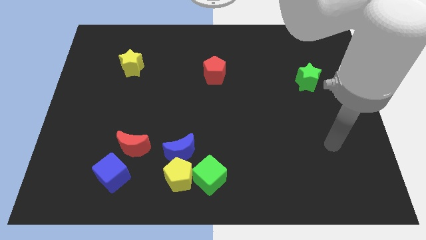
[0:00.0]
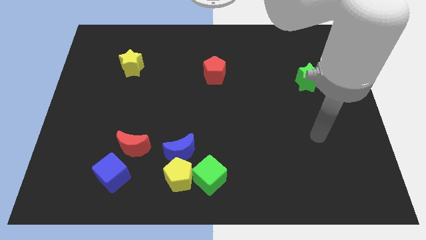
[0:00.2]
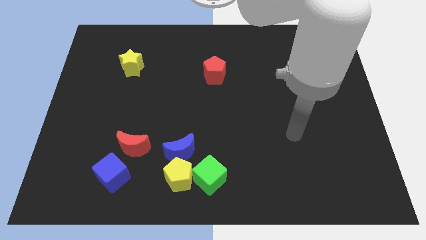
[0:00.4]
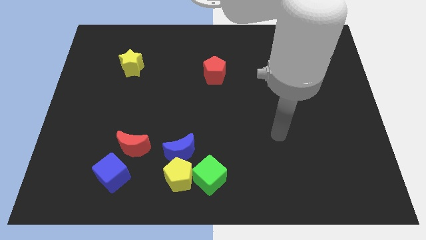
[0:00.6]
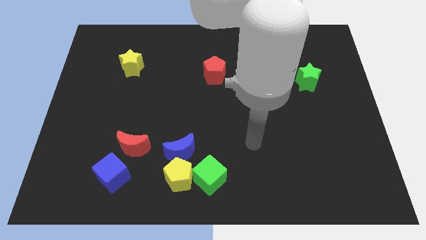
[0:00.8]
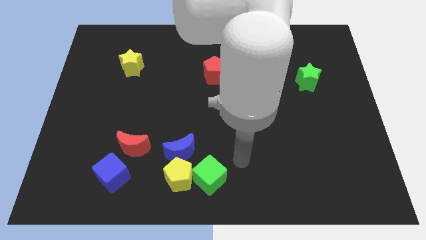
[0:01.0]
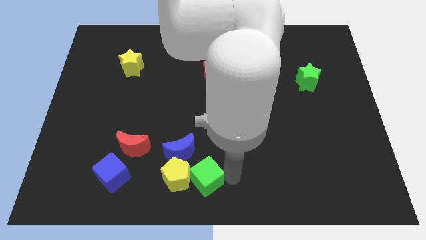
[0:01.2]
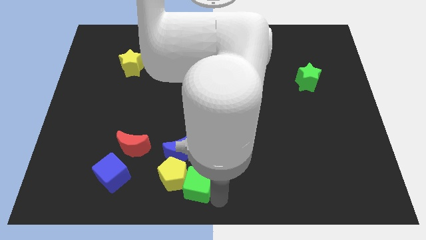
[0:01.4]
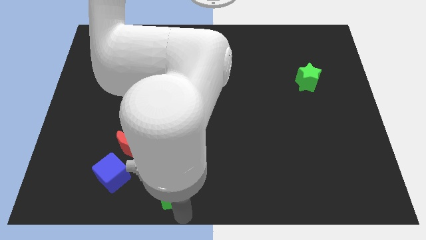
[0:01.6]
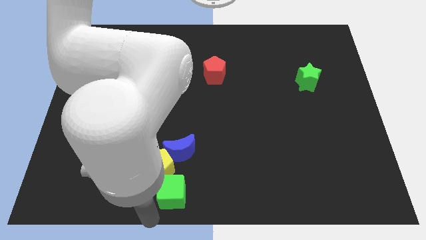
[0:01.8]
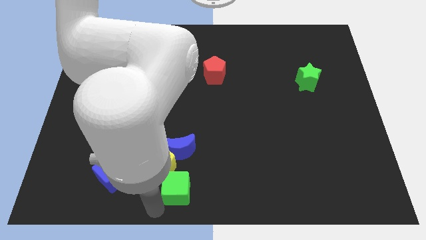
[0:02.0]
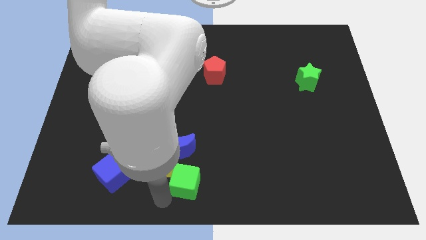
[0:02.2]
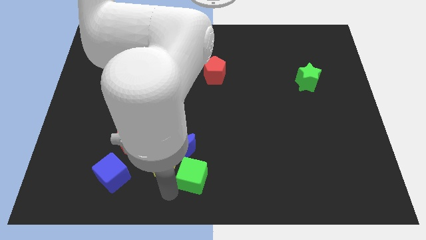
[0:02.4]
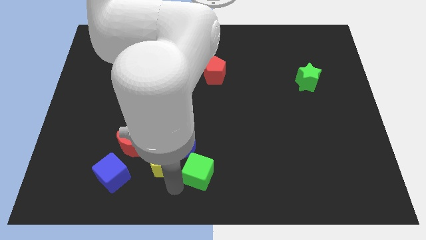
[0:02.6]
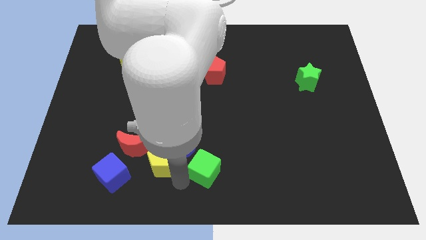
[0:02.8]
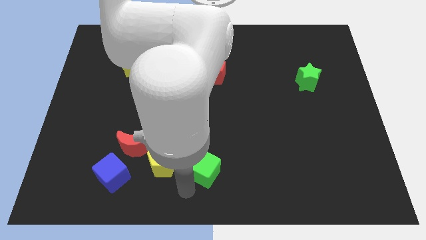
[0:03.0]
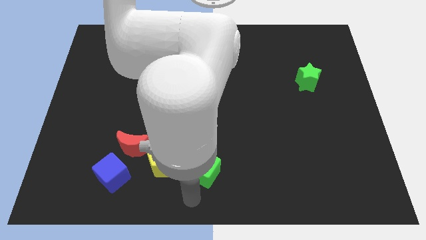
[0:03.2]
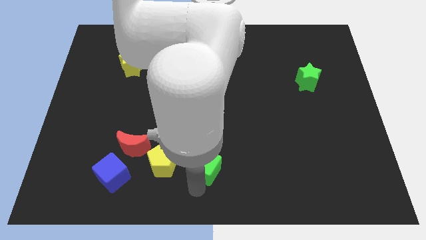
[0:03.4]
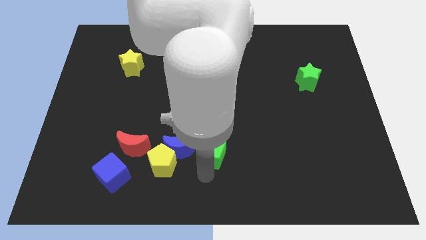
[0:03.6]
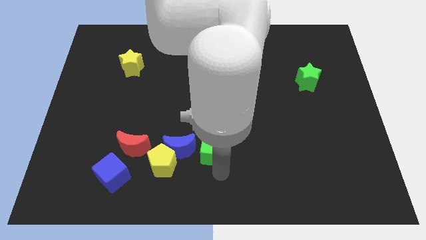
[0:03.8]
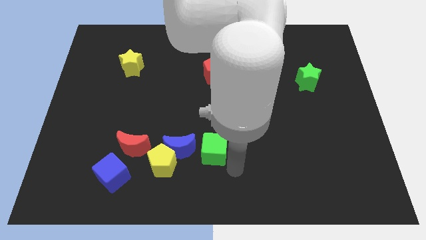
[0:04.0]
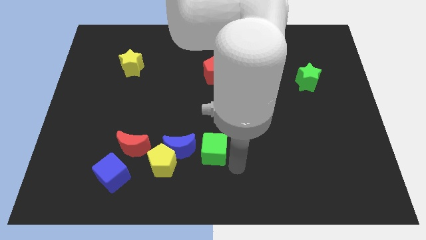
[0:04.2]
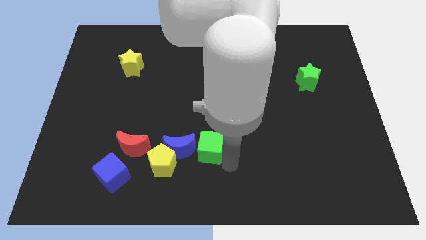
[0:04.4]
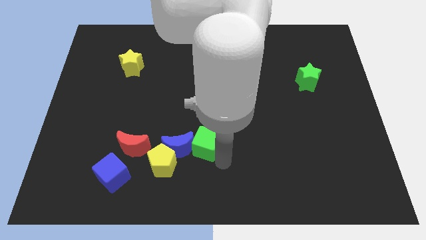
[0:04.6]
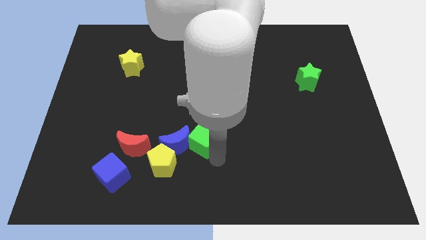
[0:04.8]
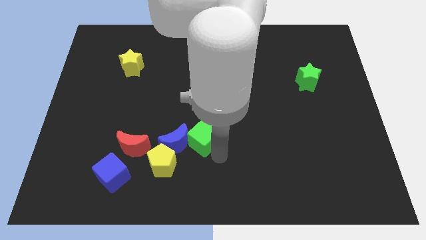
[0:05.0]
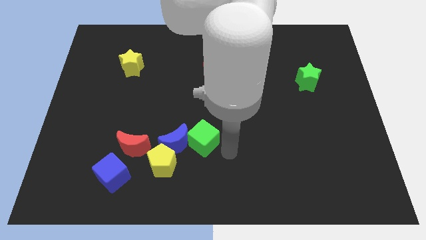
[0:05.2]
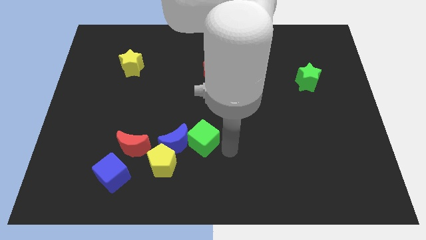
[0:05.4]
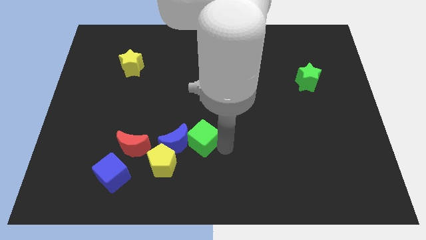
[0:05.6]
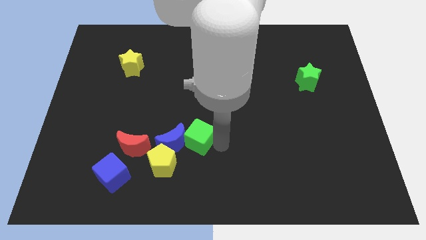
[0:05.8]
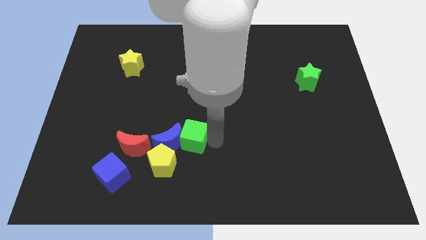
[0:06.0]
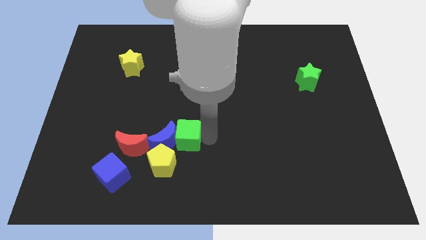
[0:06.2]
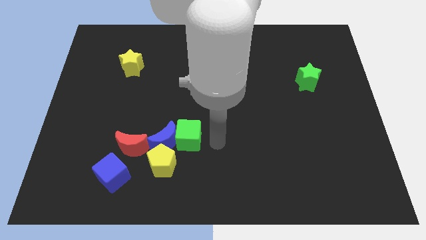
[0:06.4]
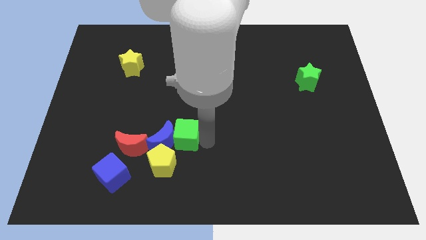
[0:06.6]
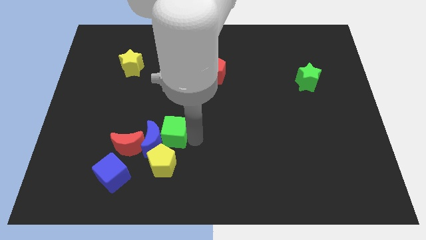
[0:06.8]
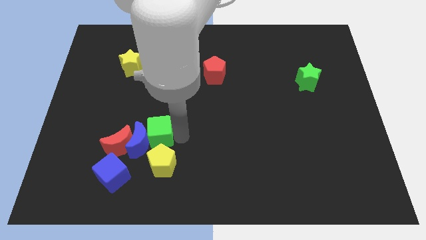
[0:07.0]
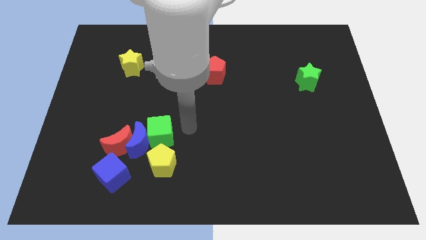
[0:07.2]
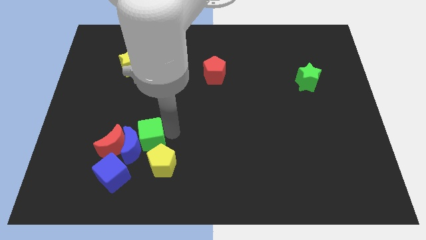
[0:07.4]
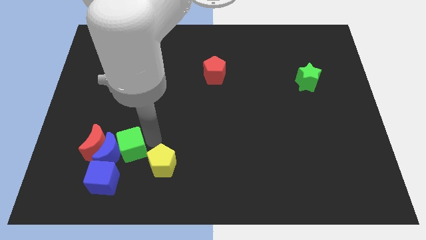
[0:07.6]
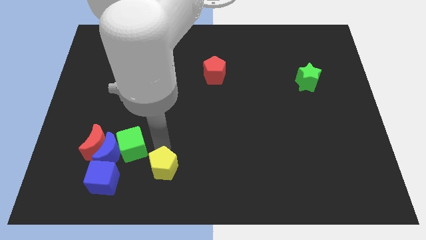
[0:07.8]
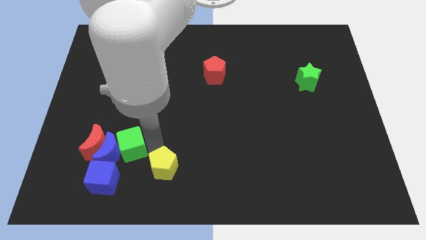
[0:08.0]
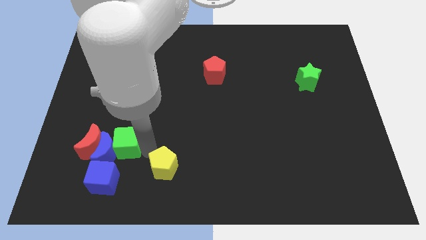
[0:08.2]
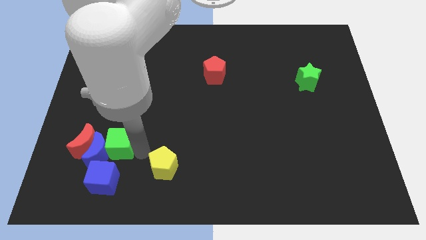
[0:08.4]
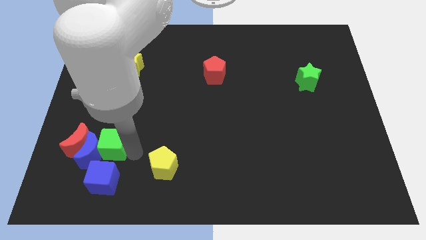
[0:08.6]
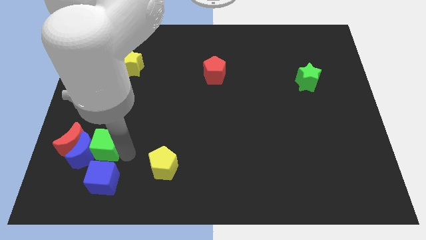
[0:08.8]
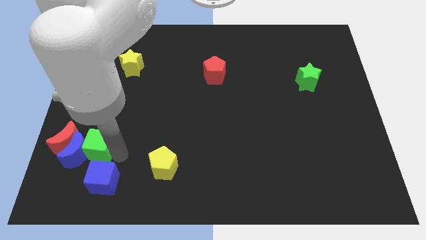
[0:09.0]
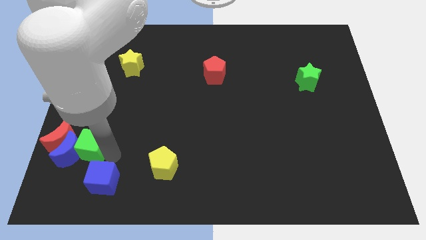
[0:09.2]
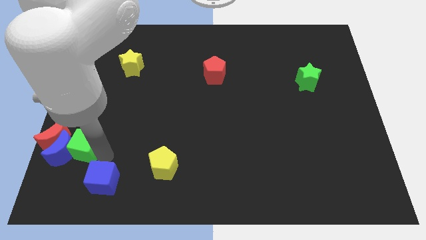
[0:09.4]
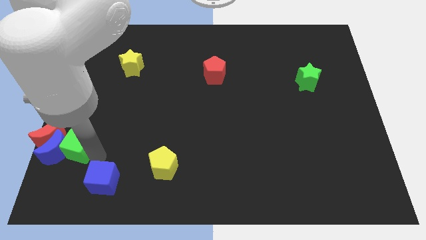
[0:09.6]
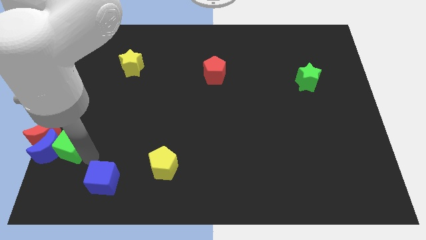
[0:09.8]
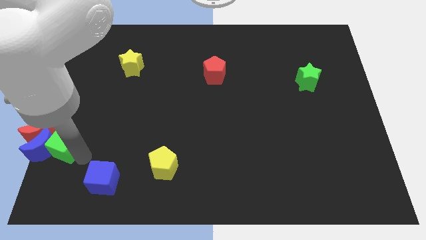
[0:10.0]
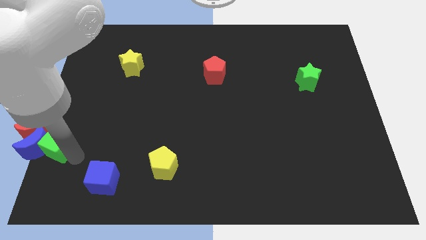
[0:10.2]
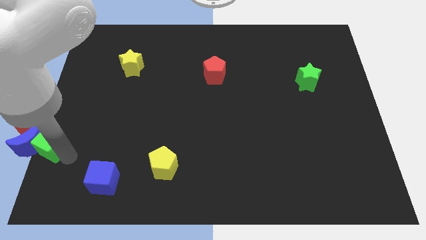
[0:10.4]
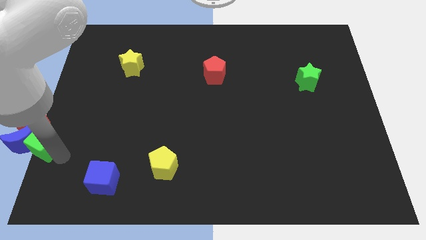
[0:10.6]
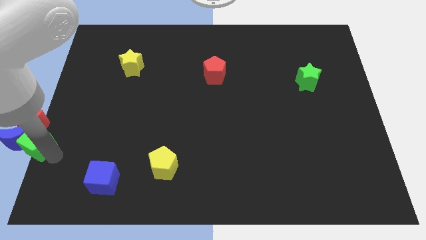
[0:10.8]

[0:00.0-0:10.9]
slide the green cube next to the red moon

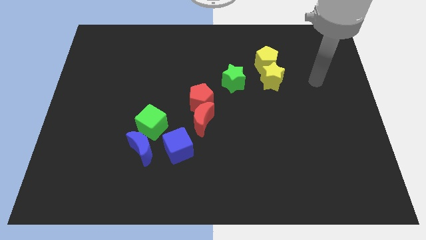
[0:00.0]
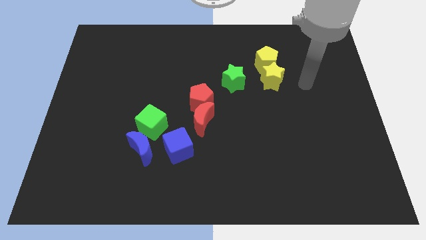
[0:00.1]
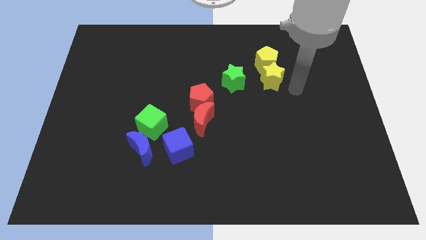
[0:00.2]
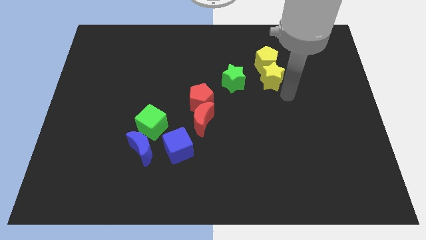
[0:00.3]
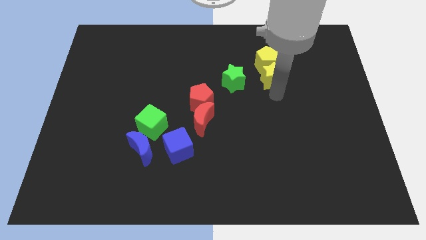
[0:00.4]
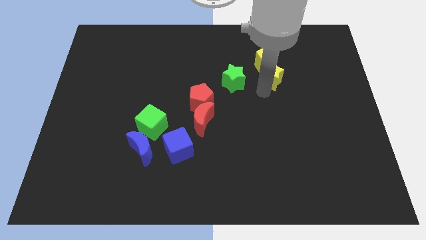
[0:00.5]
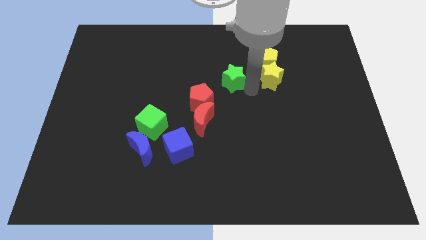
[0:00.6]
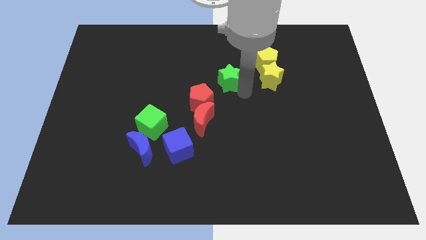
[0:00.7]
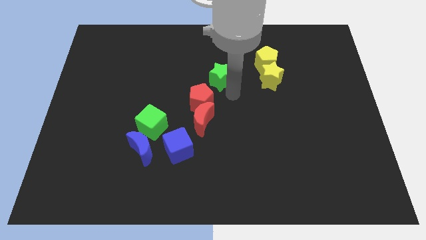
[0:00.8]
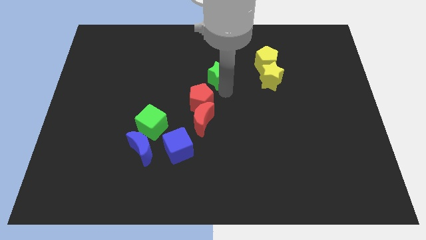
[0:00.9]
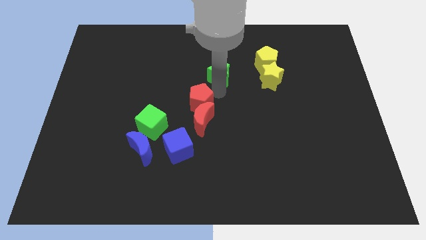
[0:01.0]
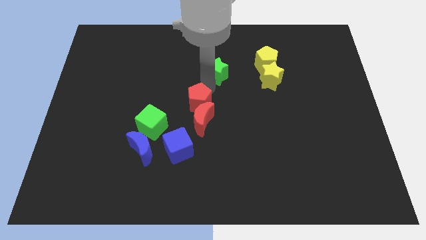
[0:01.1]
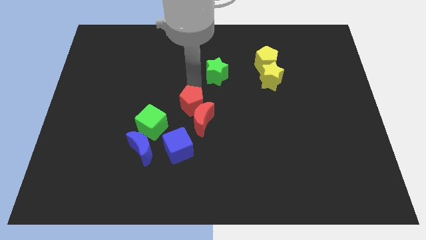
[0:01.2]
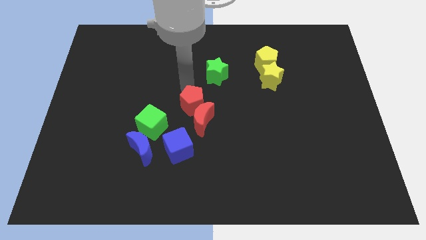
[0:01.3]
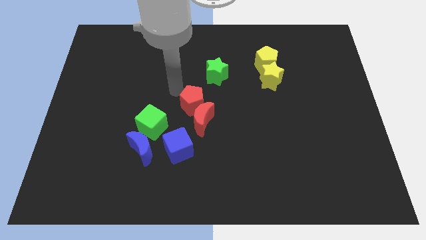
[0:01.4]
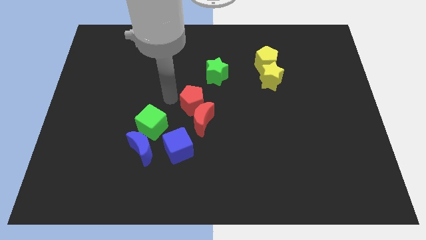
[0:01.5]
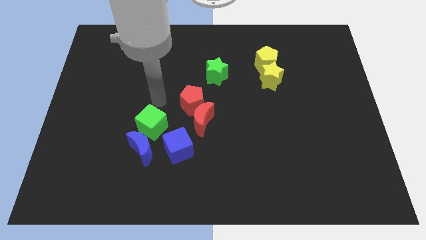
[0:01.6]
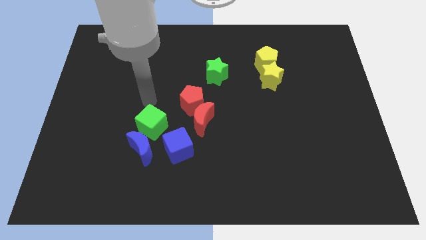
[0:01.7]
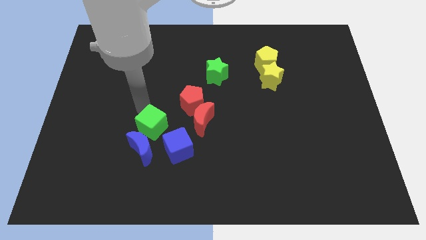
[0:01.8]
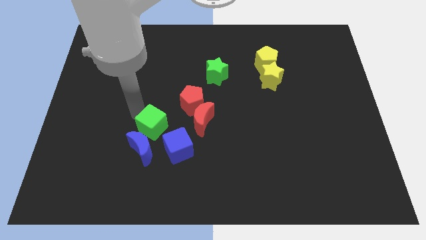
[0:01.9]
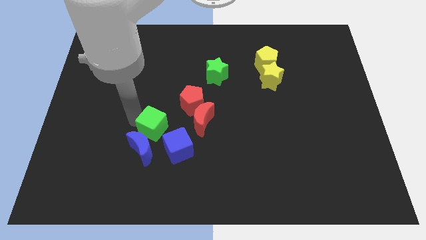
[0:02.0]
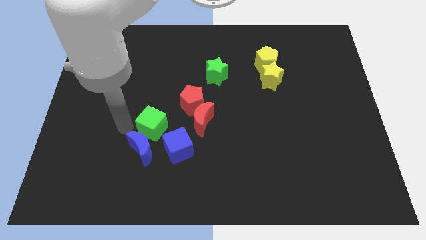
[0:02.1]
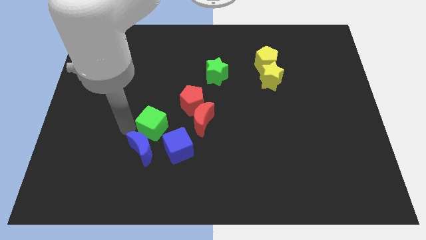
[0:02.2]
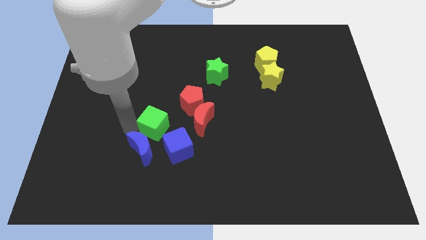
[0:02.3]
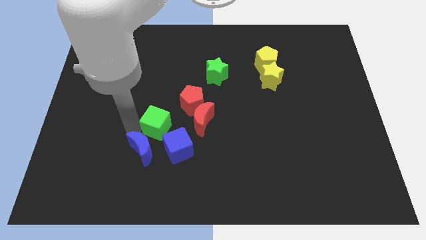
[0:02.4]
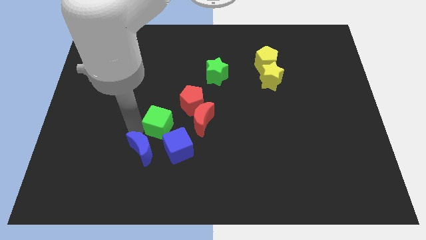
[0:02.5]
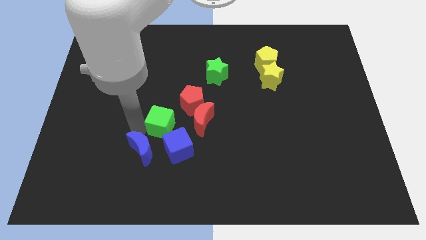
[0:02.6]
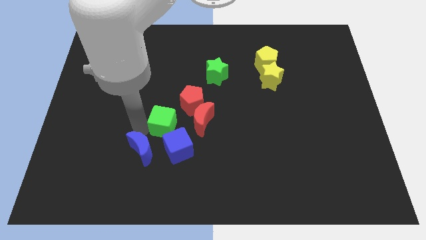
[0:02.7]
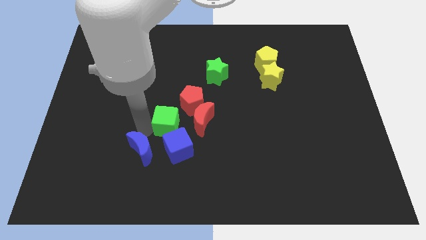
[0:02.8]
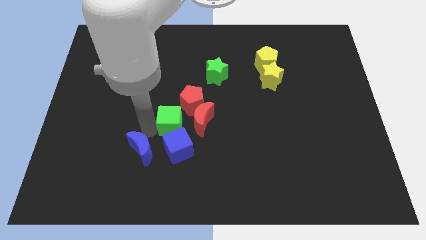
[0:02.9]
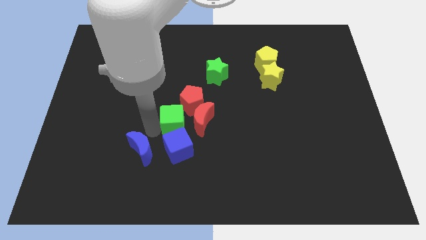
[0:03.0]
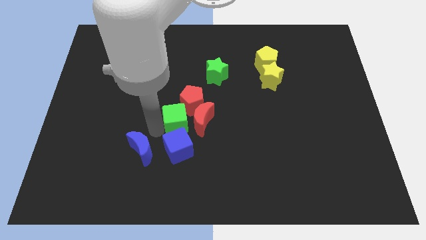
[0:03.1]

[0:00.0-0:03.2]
put the green cube towards the red moon
